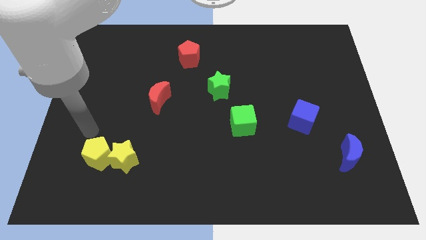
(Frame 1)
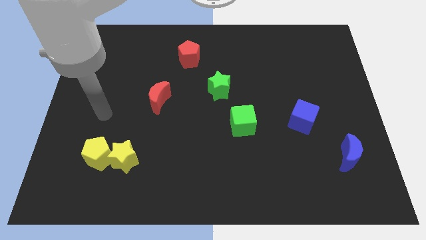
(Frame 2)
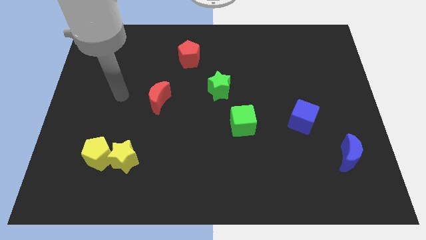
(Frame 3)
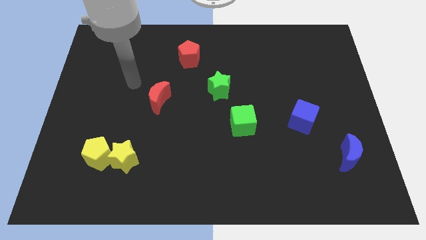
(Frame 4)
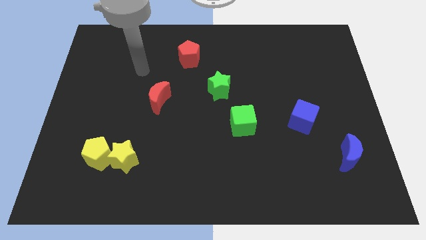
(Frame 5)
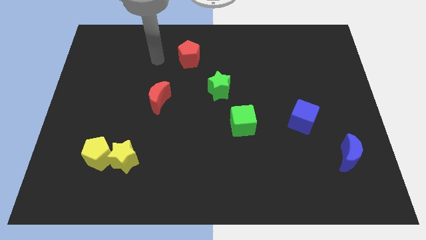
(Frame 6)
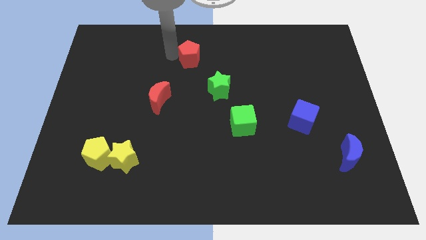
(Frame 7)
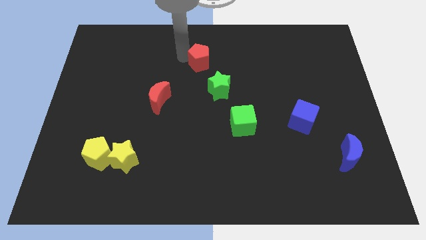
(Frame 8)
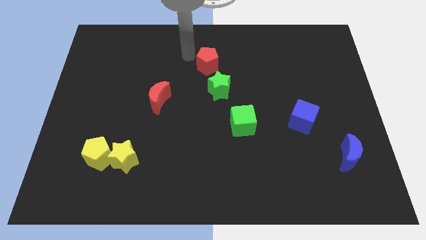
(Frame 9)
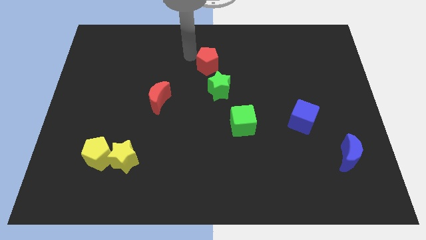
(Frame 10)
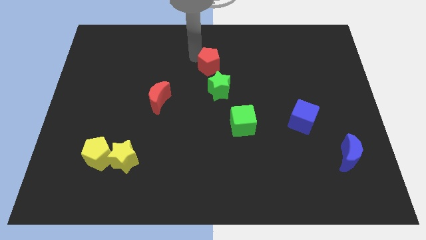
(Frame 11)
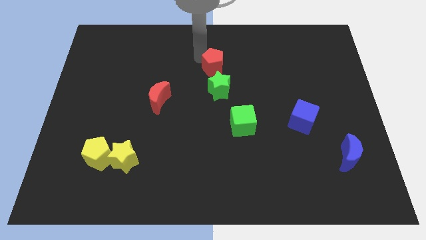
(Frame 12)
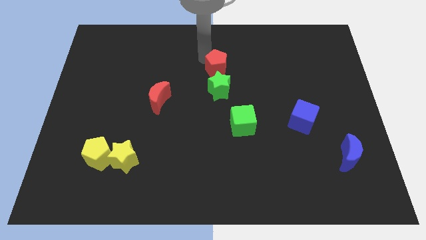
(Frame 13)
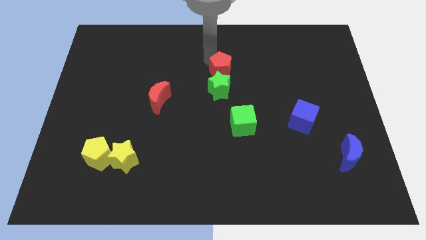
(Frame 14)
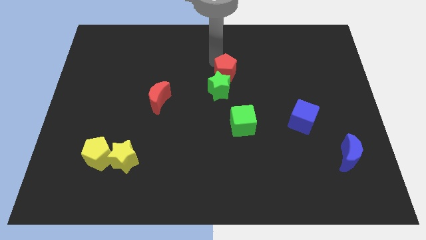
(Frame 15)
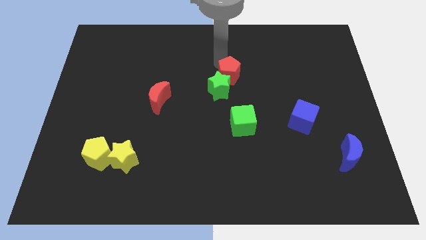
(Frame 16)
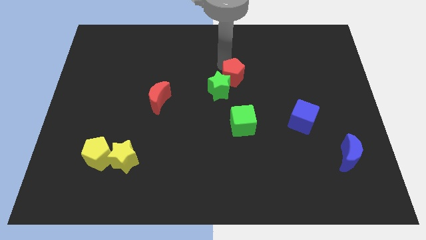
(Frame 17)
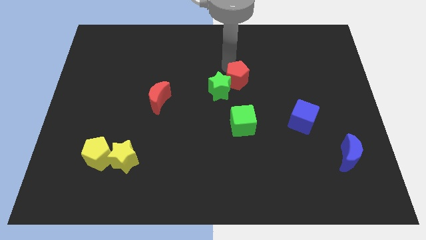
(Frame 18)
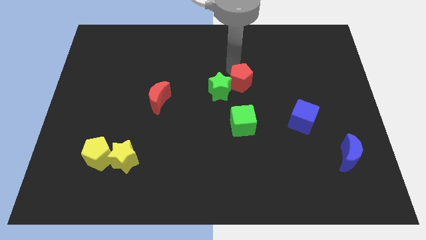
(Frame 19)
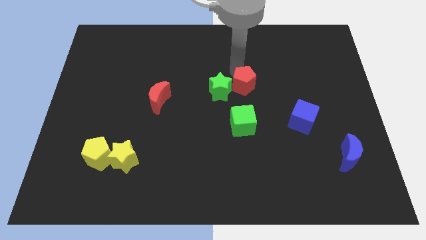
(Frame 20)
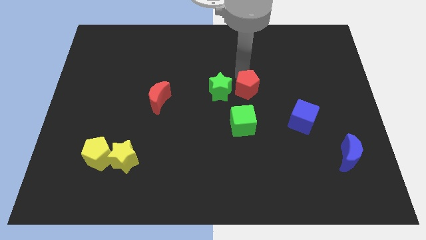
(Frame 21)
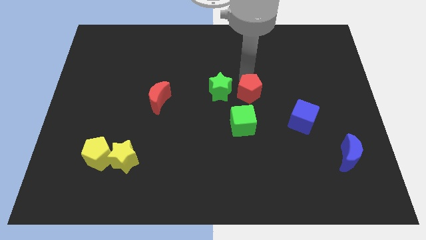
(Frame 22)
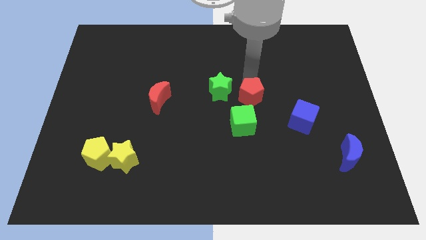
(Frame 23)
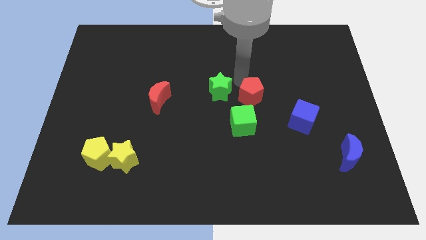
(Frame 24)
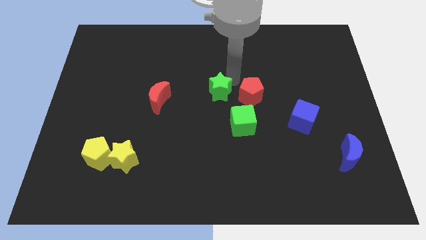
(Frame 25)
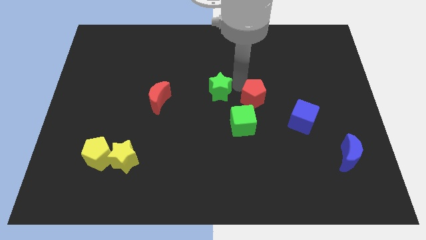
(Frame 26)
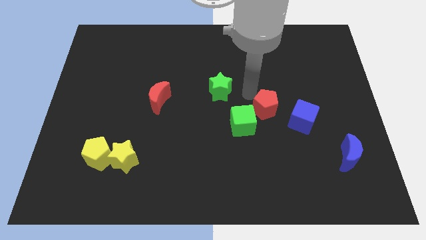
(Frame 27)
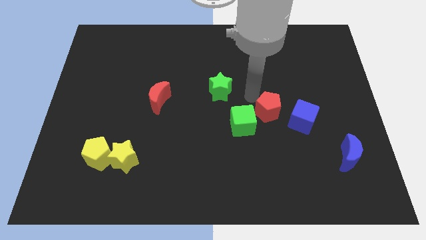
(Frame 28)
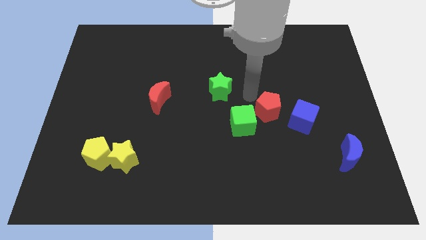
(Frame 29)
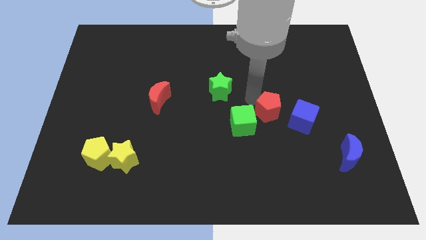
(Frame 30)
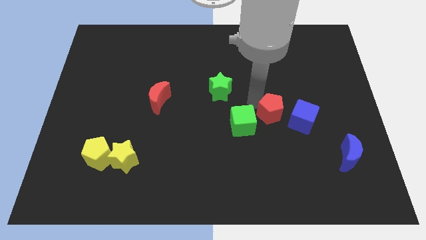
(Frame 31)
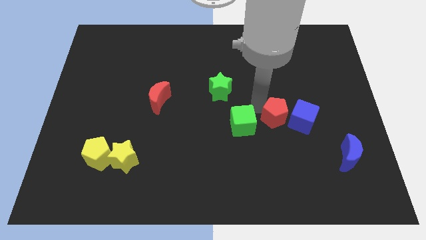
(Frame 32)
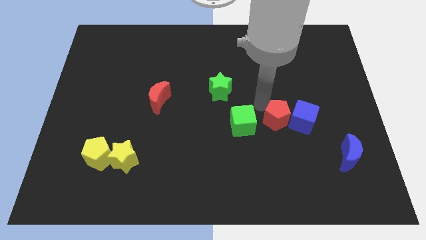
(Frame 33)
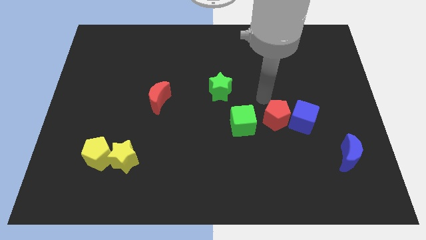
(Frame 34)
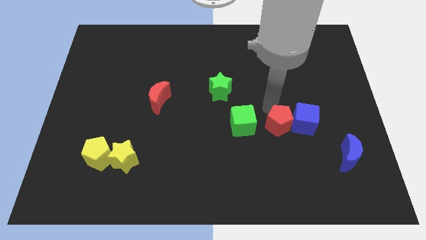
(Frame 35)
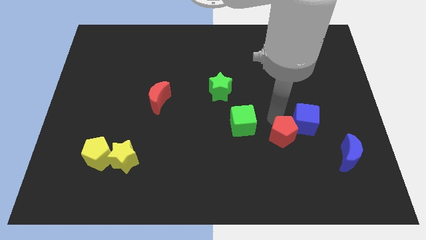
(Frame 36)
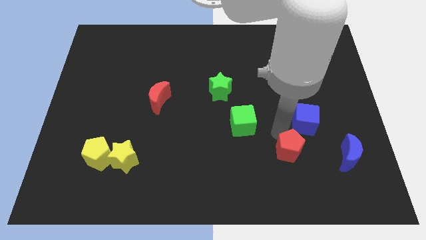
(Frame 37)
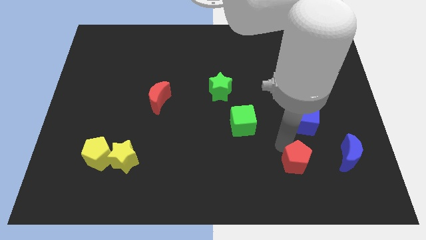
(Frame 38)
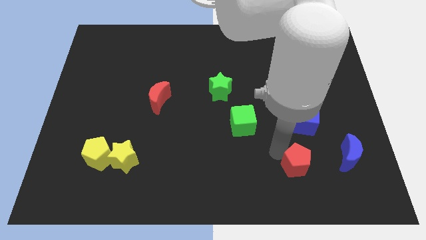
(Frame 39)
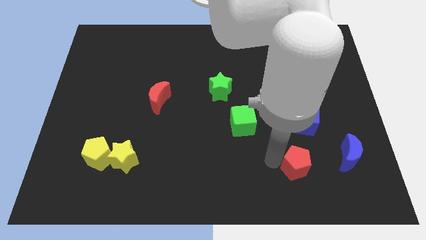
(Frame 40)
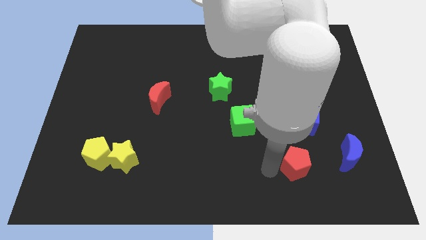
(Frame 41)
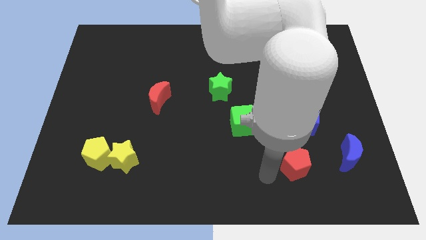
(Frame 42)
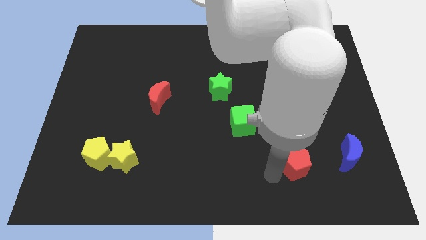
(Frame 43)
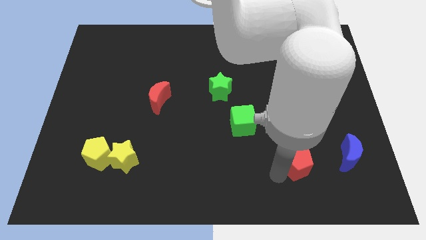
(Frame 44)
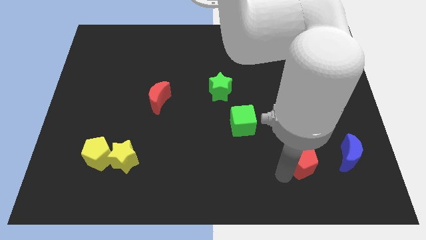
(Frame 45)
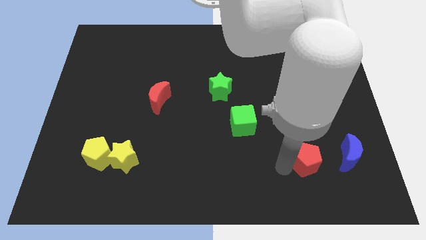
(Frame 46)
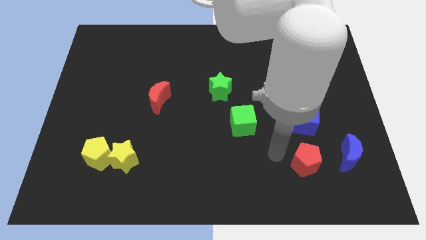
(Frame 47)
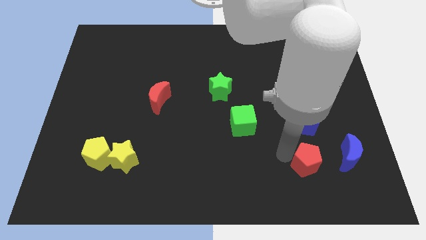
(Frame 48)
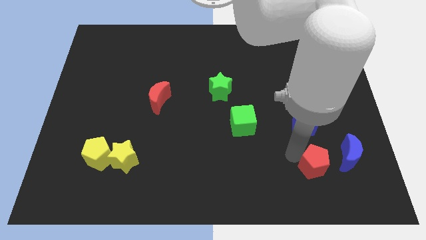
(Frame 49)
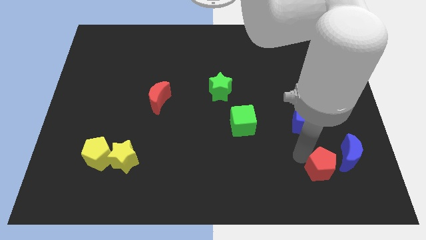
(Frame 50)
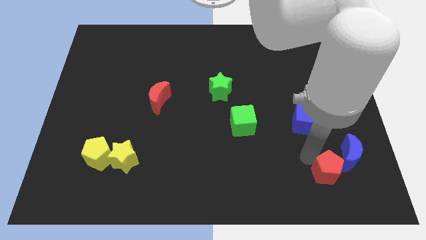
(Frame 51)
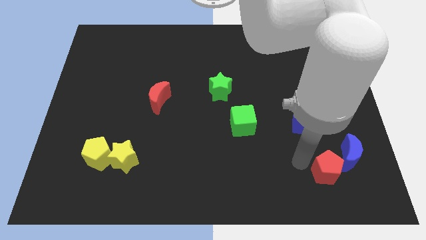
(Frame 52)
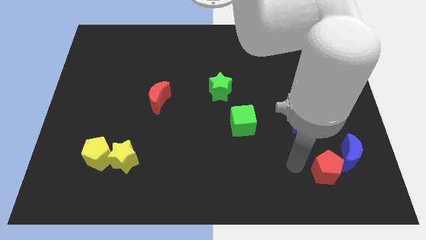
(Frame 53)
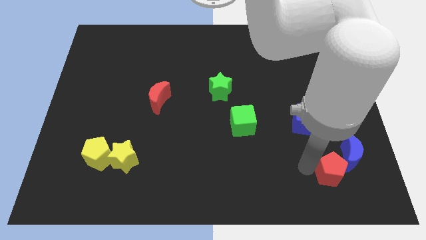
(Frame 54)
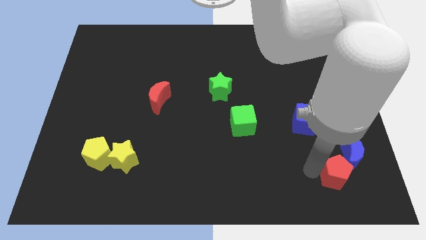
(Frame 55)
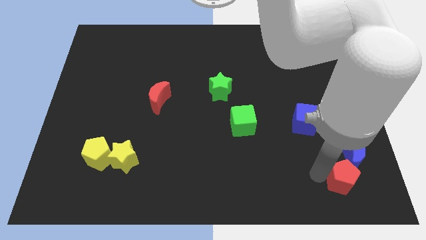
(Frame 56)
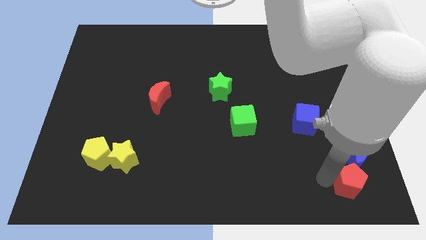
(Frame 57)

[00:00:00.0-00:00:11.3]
move the red pentagon to the bottom right

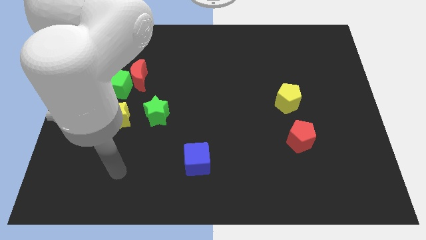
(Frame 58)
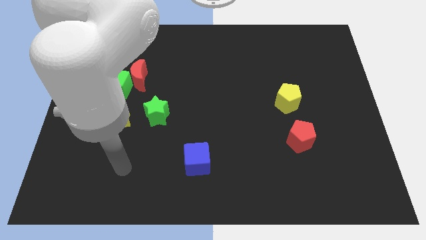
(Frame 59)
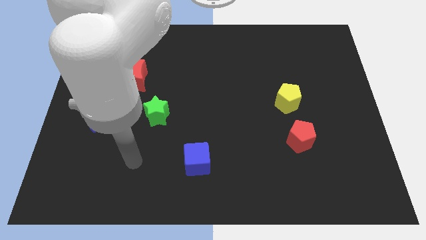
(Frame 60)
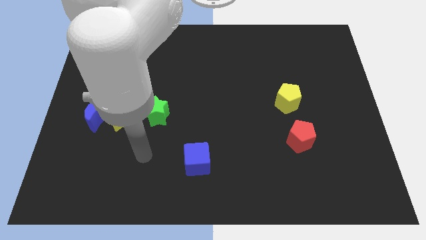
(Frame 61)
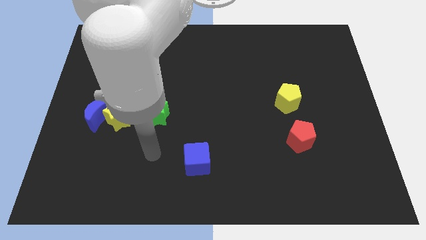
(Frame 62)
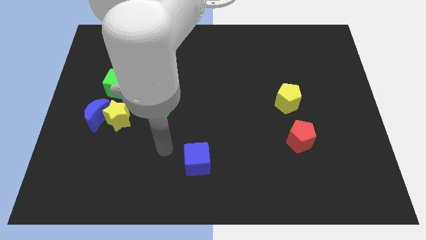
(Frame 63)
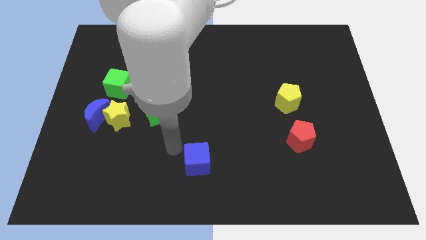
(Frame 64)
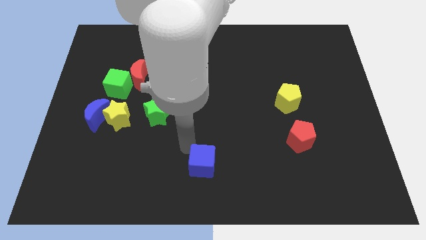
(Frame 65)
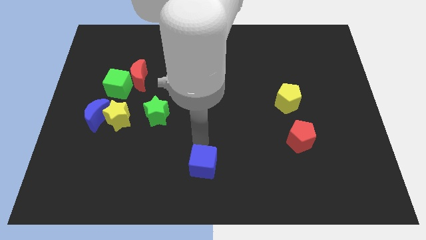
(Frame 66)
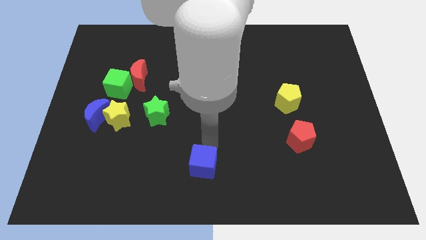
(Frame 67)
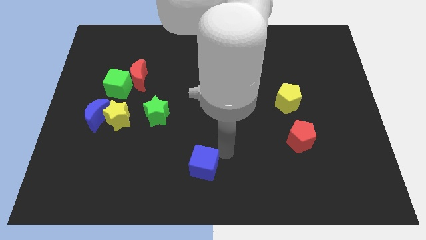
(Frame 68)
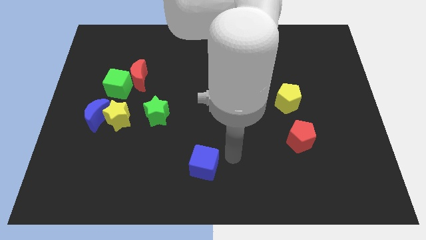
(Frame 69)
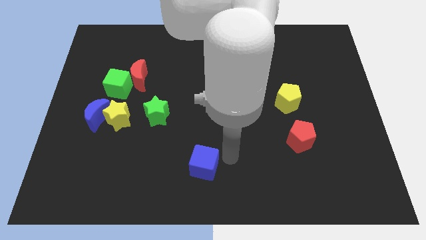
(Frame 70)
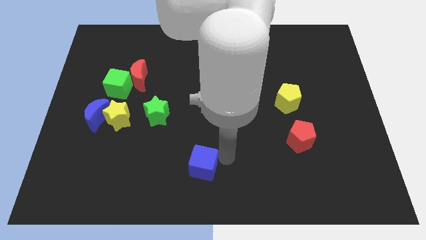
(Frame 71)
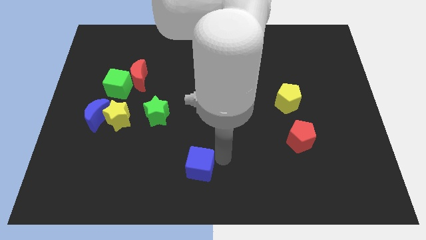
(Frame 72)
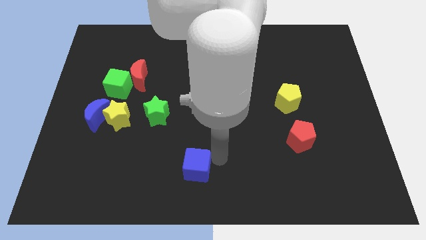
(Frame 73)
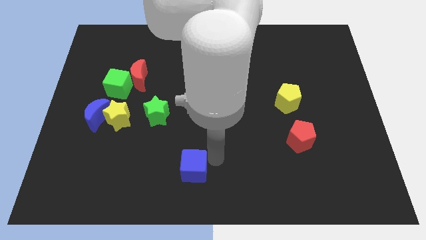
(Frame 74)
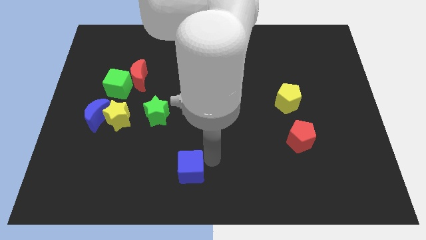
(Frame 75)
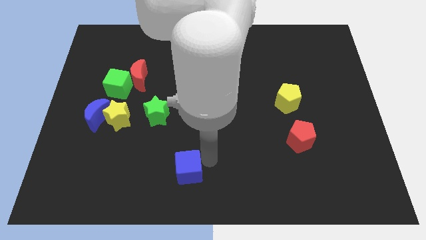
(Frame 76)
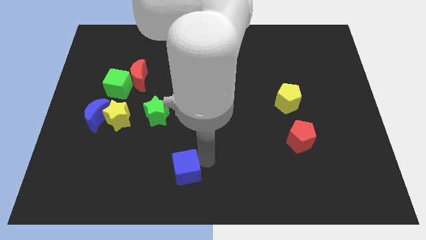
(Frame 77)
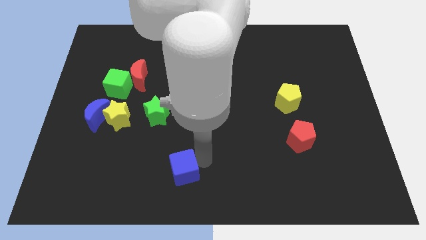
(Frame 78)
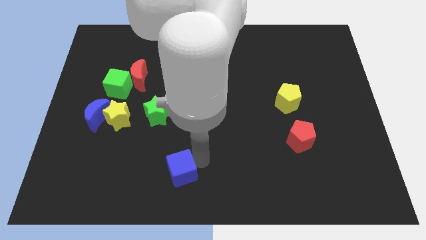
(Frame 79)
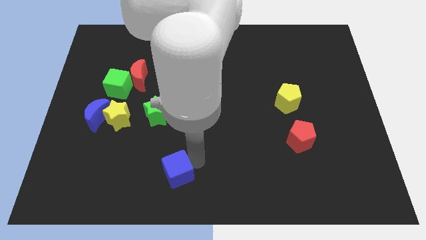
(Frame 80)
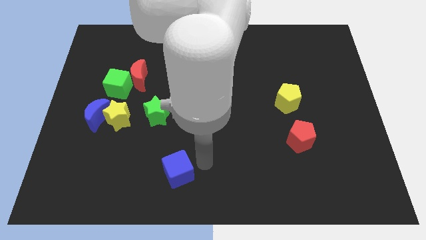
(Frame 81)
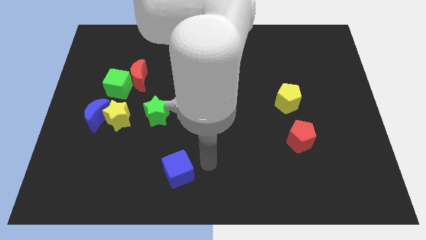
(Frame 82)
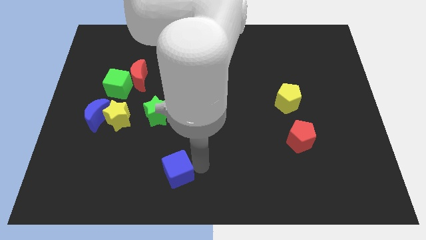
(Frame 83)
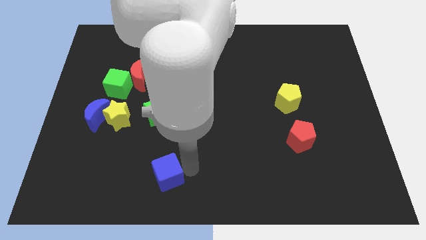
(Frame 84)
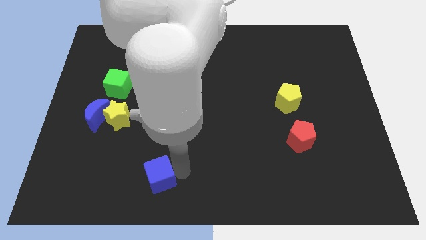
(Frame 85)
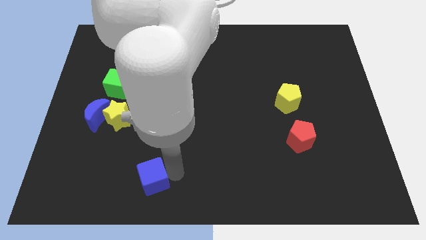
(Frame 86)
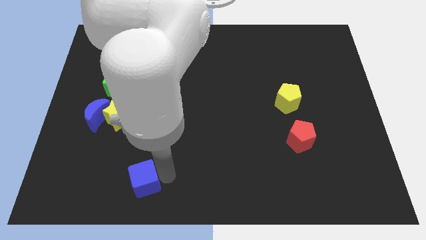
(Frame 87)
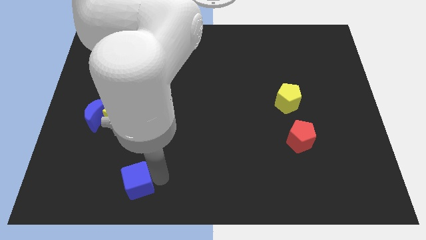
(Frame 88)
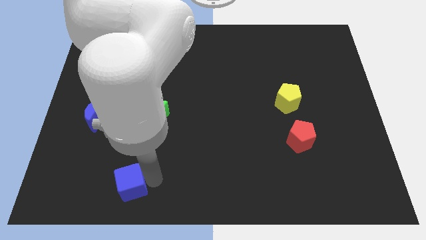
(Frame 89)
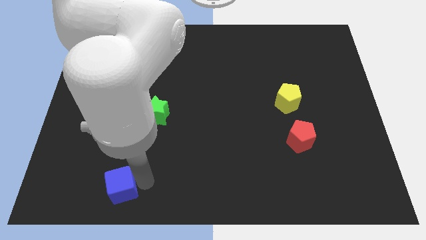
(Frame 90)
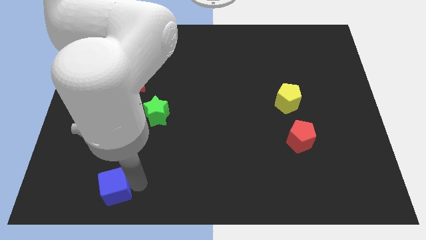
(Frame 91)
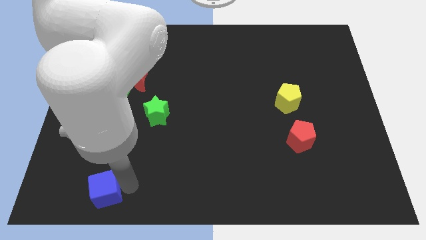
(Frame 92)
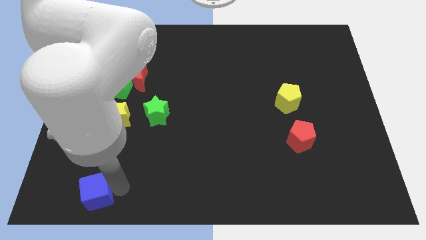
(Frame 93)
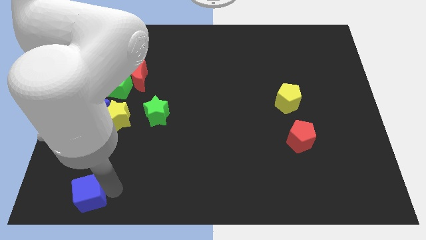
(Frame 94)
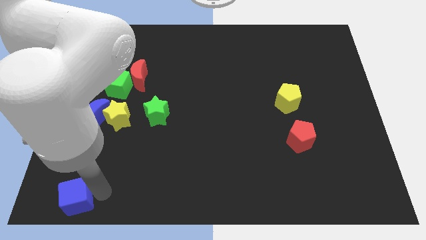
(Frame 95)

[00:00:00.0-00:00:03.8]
slide the blue cube to the bottom left corner
